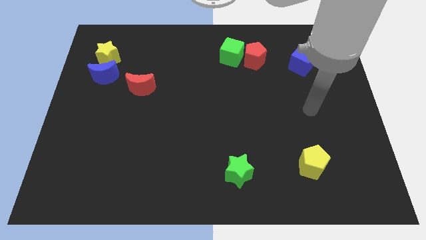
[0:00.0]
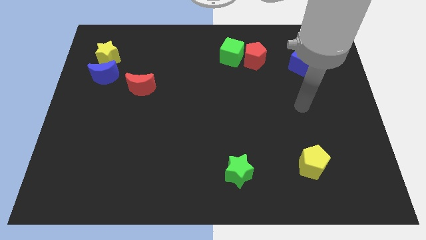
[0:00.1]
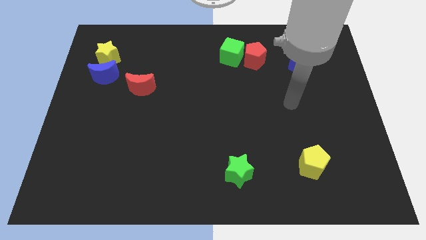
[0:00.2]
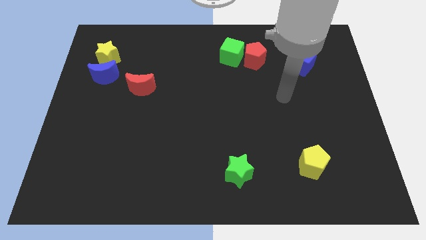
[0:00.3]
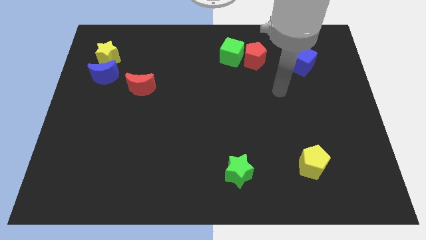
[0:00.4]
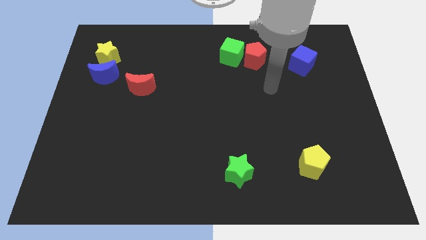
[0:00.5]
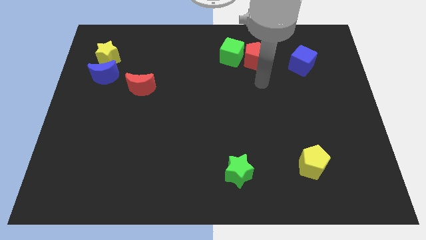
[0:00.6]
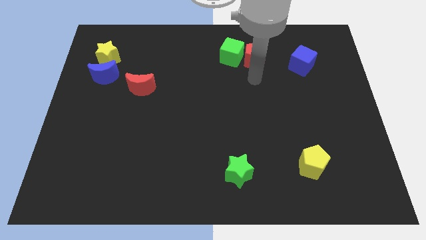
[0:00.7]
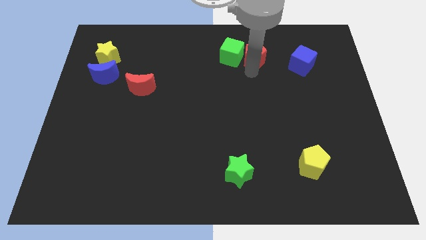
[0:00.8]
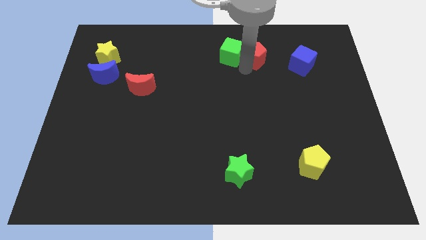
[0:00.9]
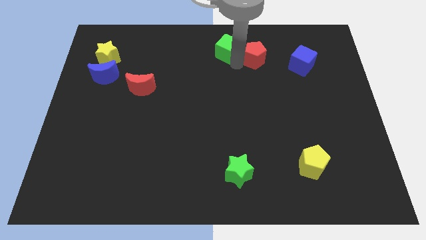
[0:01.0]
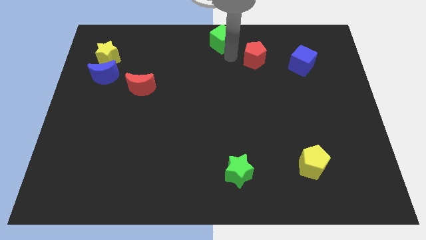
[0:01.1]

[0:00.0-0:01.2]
move the red pentagon away from the green cube

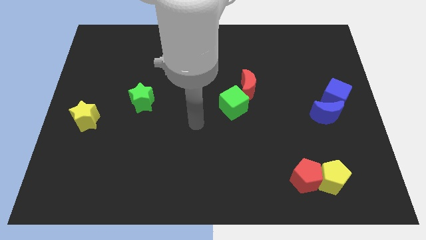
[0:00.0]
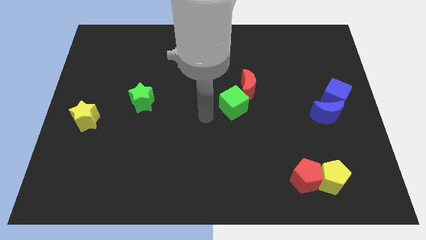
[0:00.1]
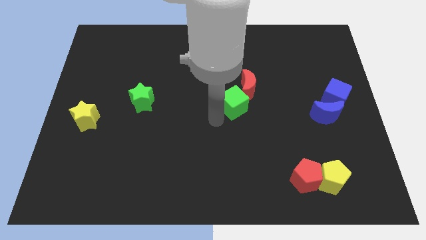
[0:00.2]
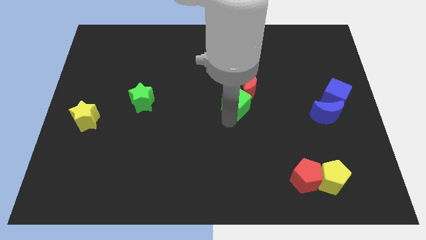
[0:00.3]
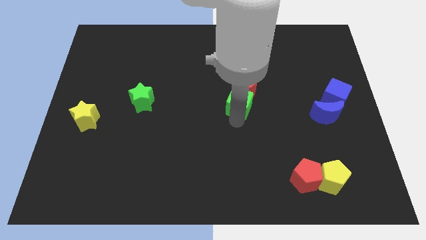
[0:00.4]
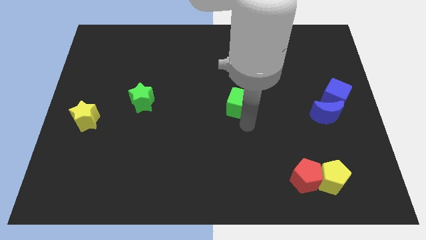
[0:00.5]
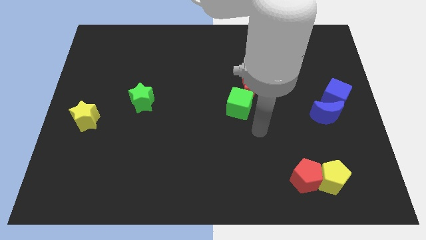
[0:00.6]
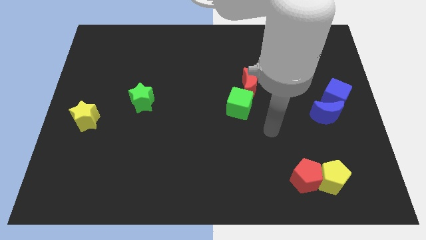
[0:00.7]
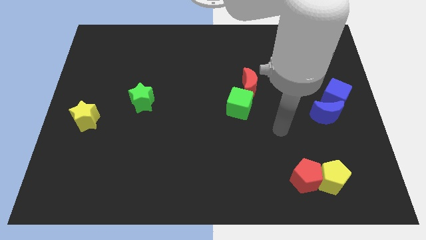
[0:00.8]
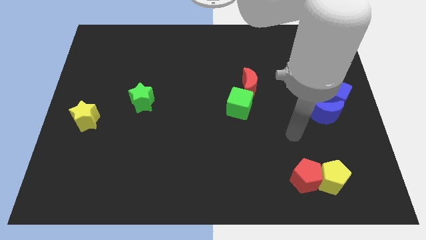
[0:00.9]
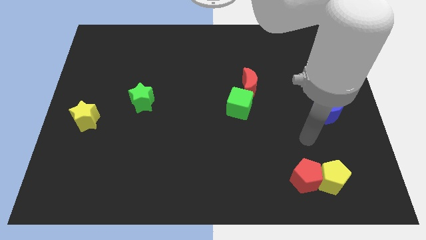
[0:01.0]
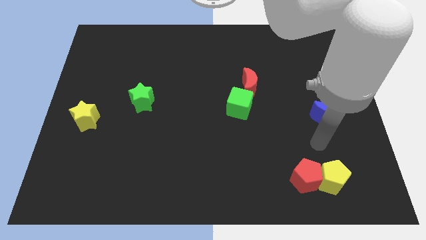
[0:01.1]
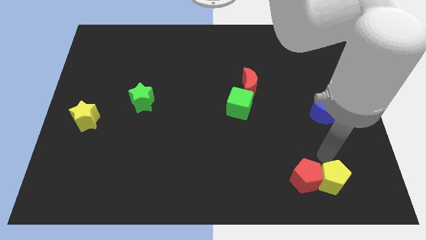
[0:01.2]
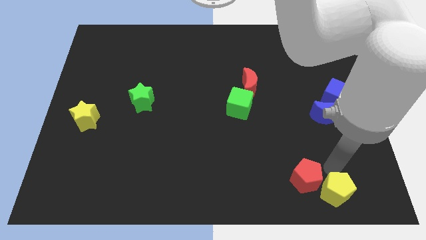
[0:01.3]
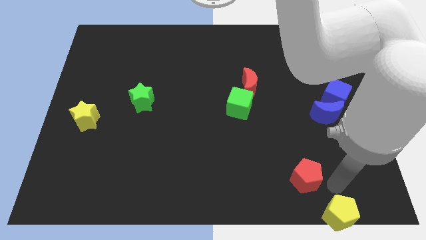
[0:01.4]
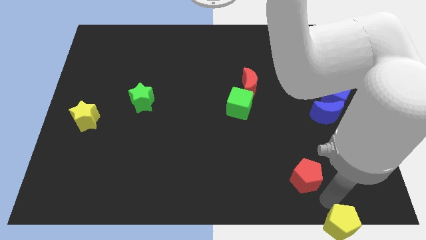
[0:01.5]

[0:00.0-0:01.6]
move the red pentagon away from the yellow pentagon

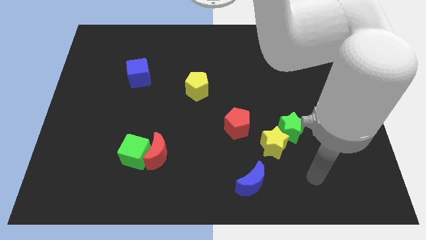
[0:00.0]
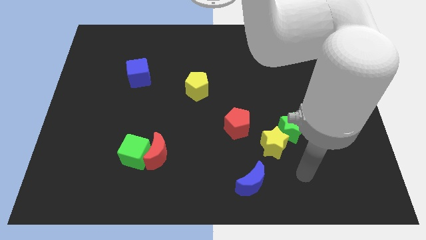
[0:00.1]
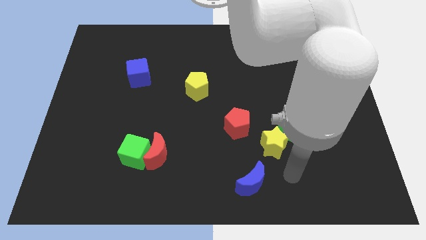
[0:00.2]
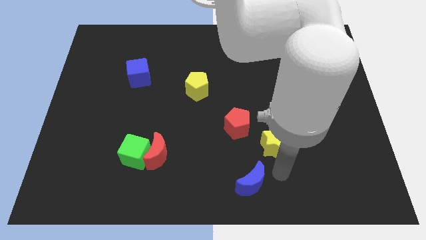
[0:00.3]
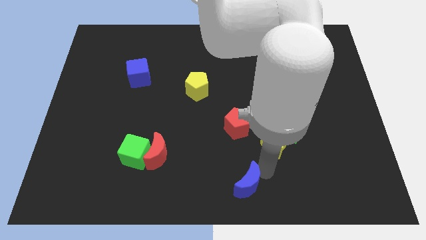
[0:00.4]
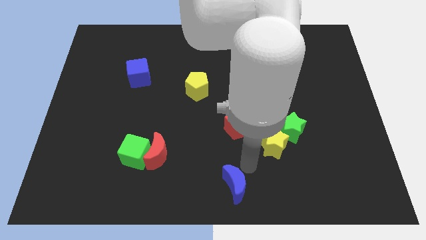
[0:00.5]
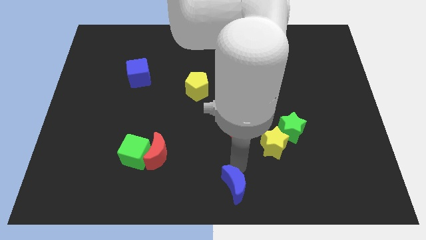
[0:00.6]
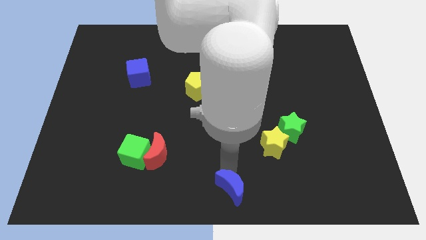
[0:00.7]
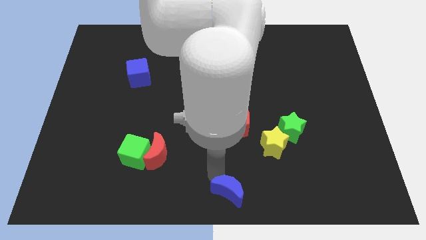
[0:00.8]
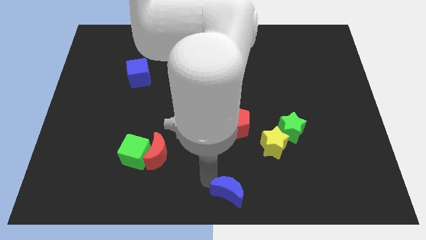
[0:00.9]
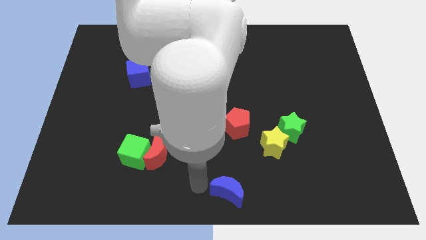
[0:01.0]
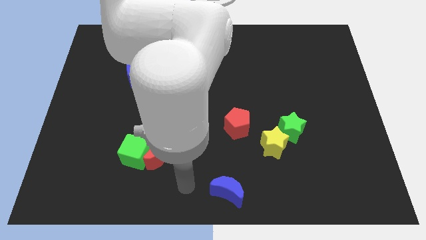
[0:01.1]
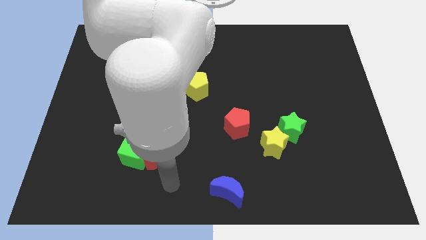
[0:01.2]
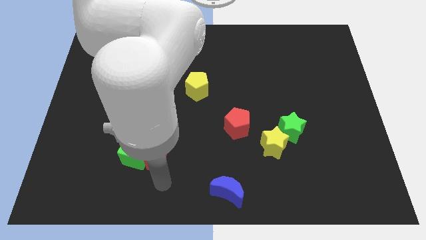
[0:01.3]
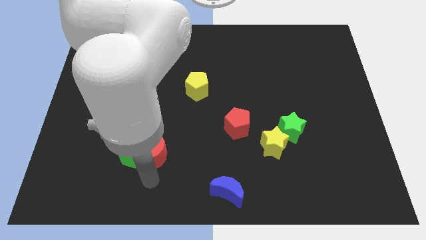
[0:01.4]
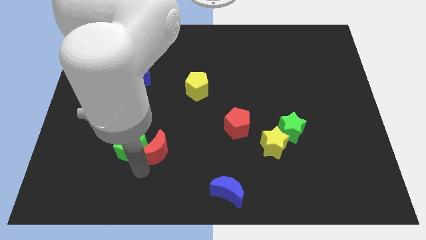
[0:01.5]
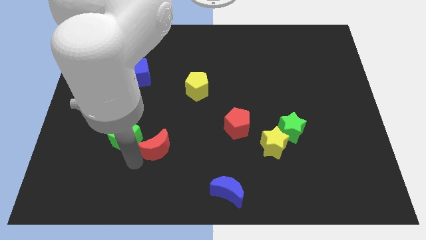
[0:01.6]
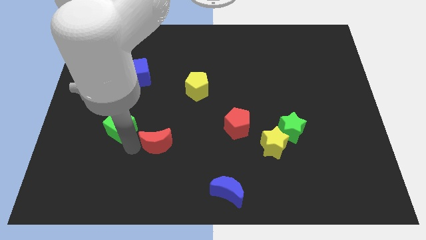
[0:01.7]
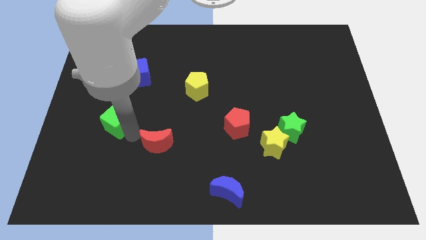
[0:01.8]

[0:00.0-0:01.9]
move the red moon away from the green cube

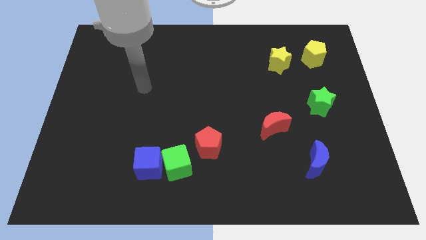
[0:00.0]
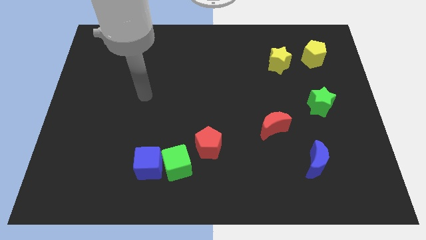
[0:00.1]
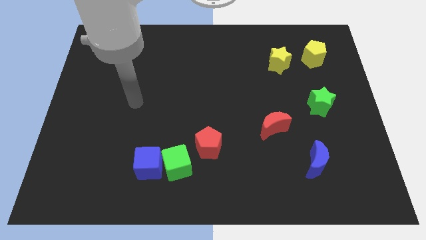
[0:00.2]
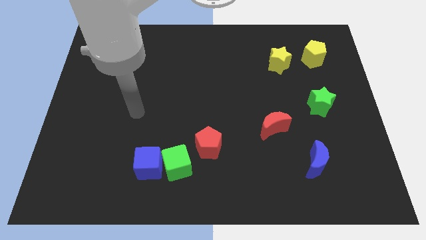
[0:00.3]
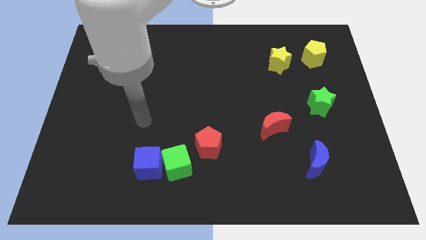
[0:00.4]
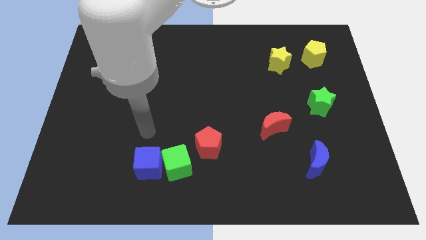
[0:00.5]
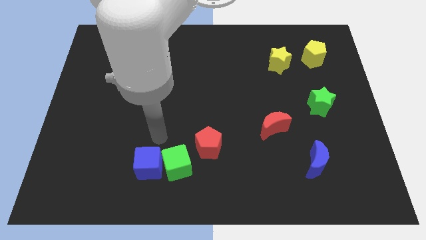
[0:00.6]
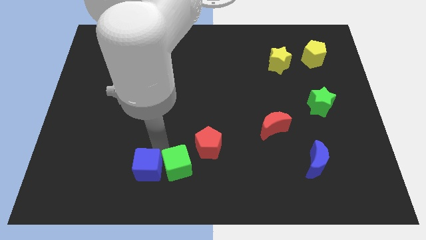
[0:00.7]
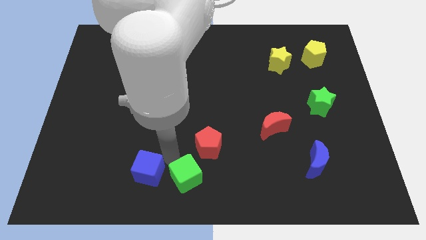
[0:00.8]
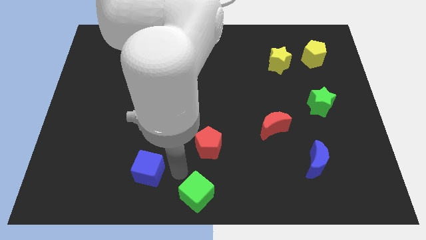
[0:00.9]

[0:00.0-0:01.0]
separate the blue cube from the green cube

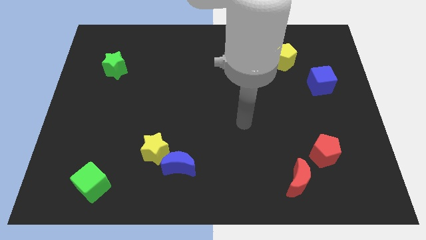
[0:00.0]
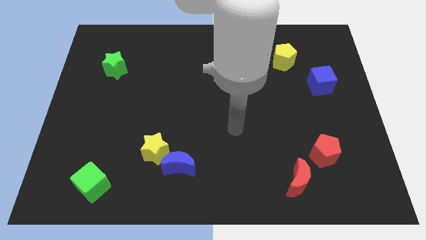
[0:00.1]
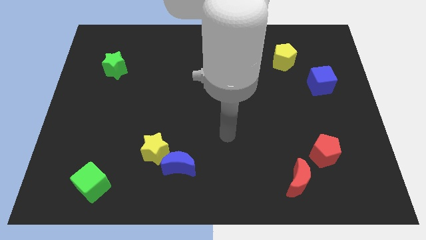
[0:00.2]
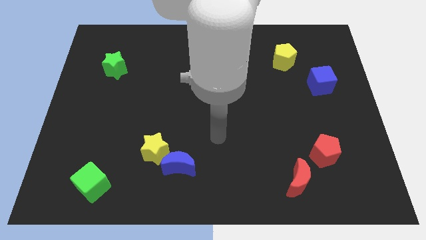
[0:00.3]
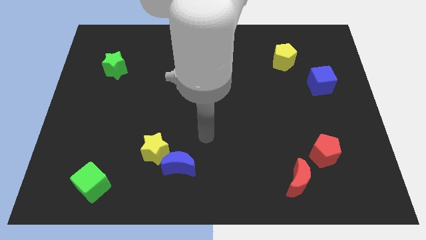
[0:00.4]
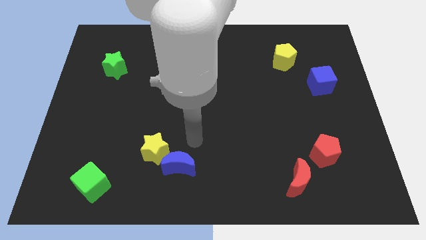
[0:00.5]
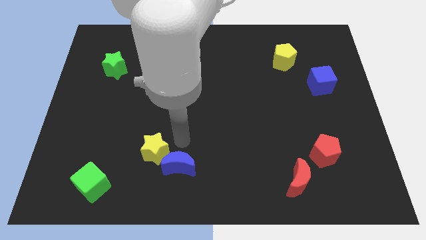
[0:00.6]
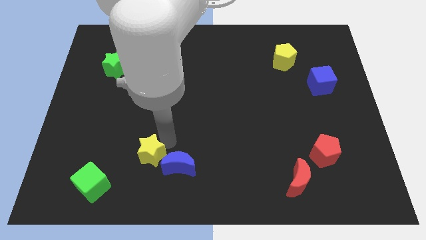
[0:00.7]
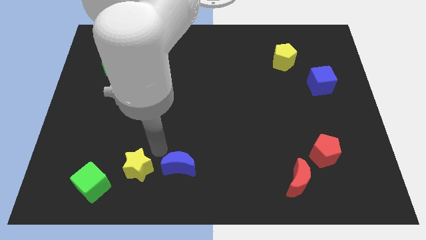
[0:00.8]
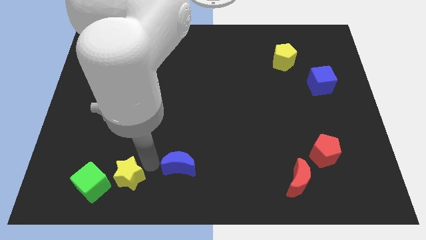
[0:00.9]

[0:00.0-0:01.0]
move the blue moon away from the yellow star

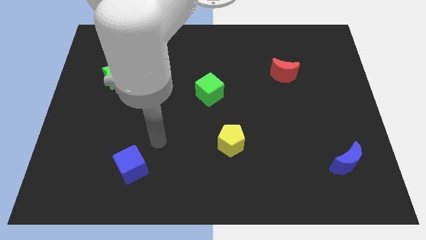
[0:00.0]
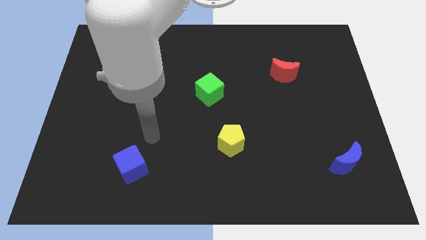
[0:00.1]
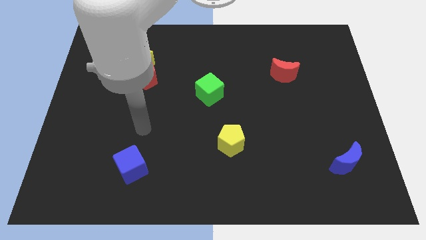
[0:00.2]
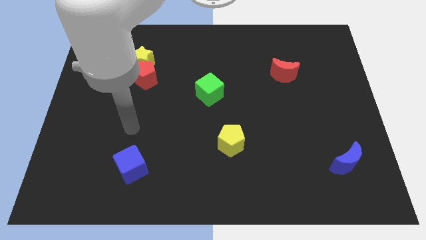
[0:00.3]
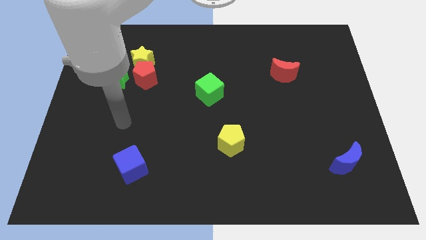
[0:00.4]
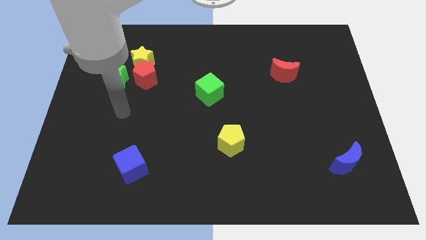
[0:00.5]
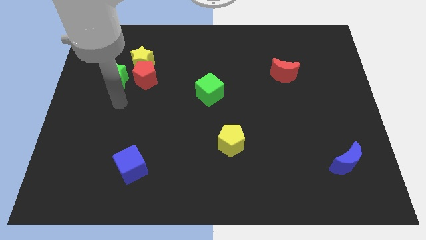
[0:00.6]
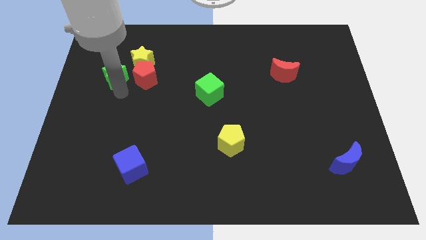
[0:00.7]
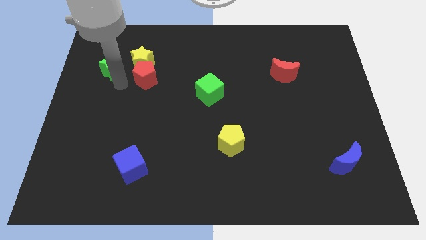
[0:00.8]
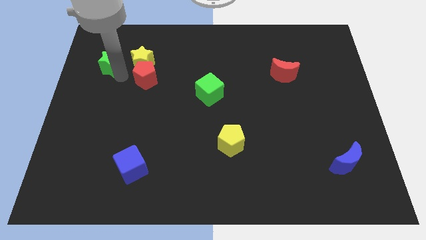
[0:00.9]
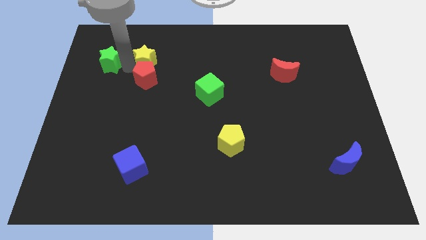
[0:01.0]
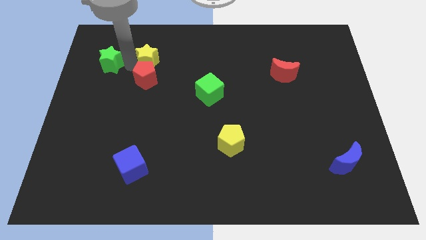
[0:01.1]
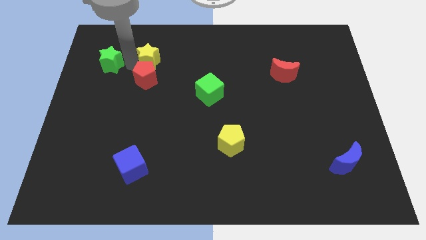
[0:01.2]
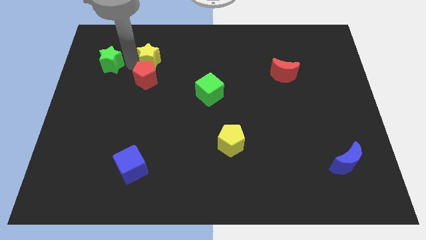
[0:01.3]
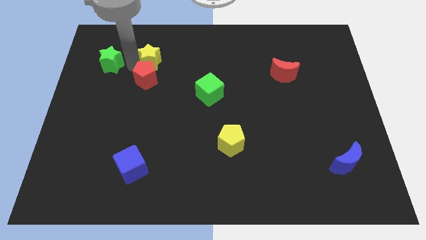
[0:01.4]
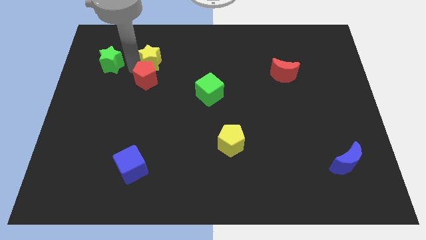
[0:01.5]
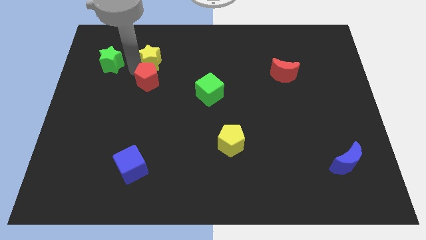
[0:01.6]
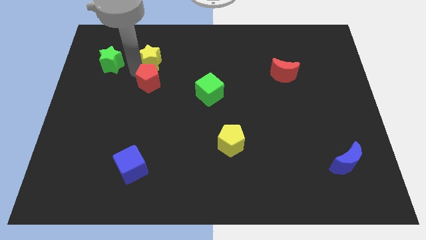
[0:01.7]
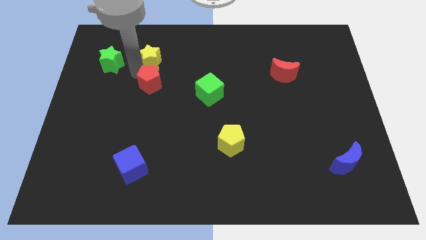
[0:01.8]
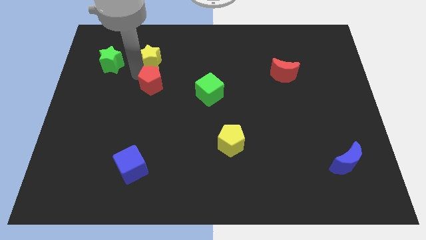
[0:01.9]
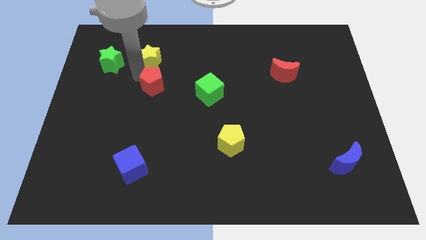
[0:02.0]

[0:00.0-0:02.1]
pull the red pentagon apart from the yellow star and green star

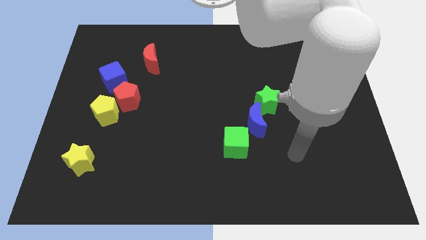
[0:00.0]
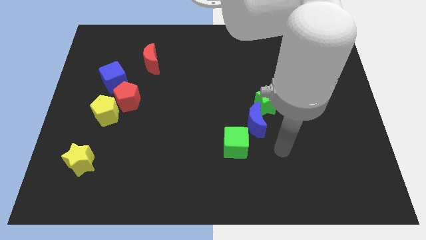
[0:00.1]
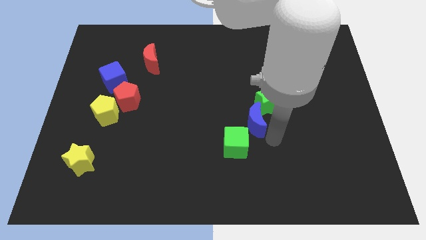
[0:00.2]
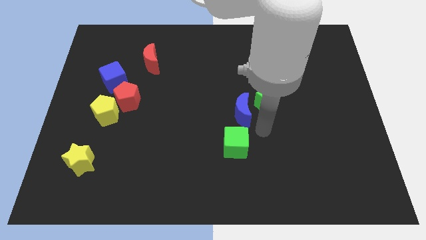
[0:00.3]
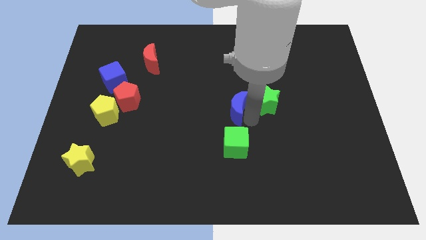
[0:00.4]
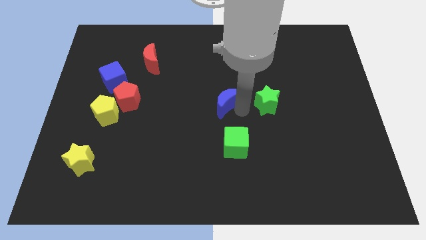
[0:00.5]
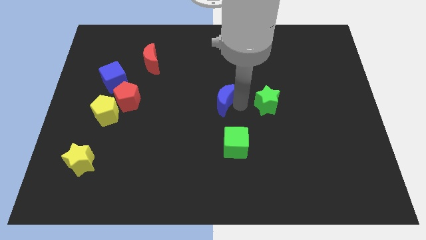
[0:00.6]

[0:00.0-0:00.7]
pull the green star apart from the blue moon

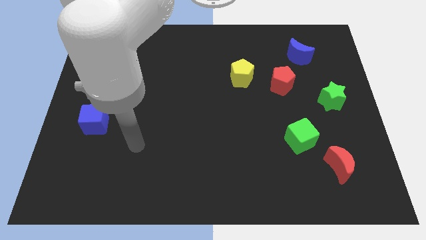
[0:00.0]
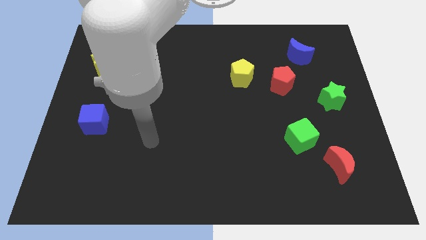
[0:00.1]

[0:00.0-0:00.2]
separate the red moon from the green cube
